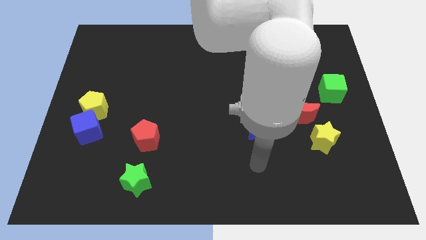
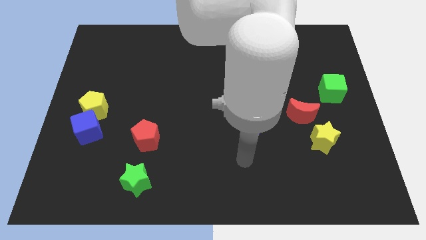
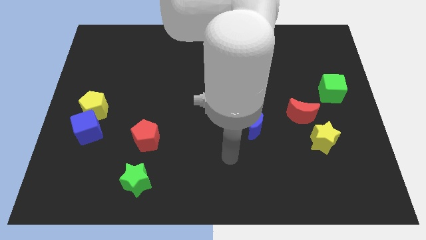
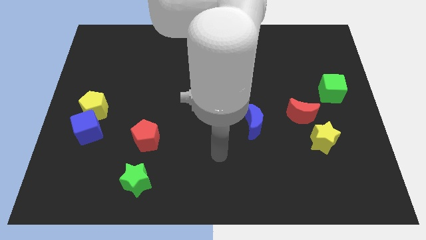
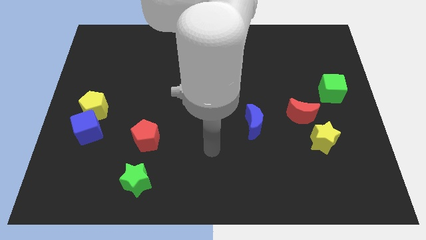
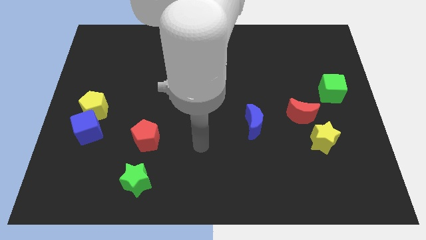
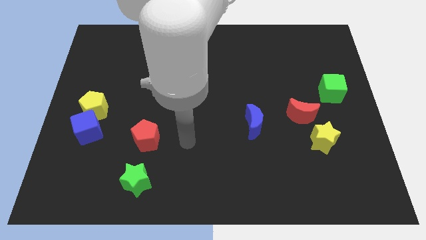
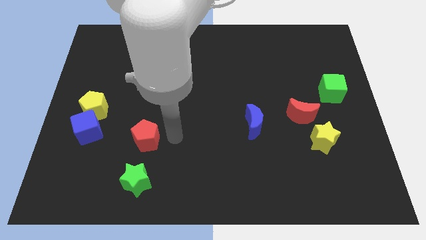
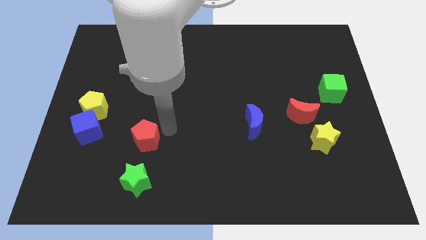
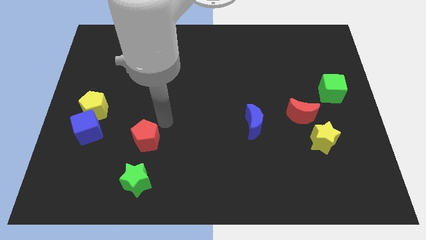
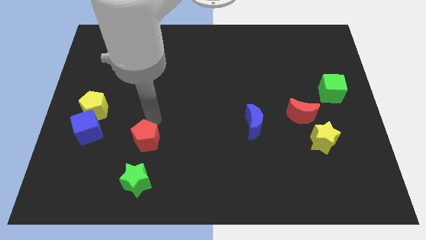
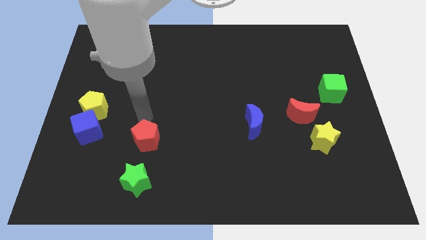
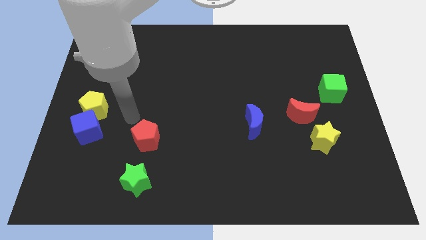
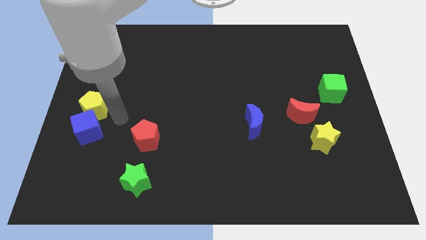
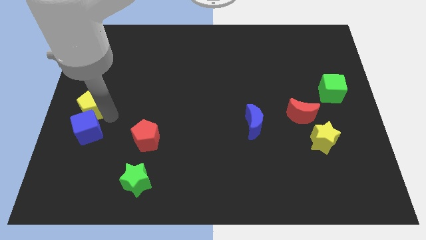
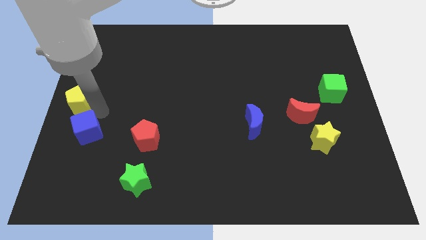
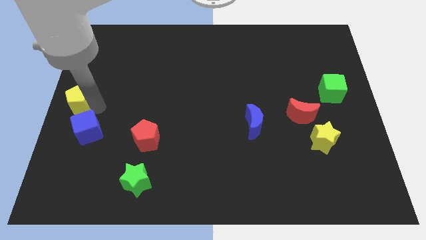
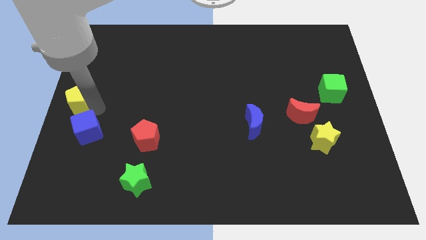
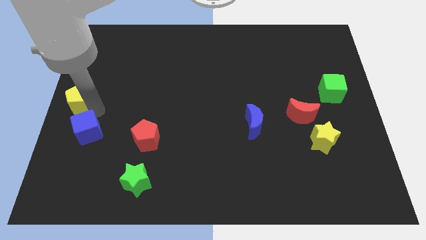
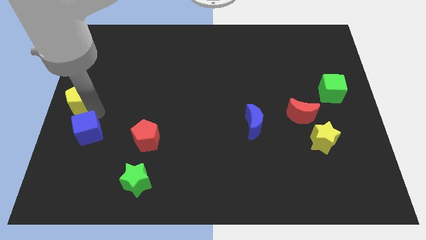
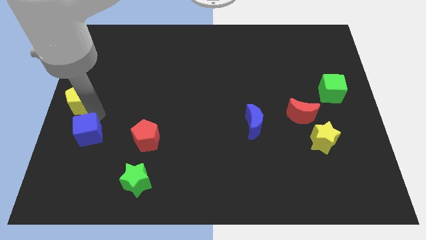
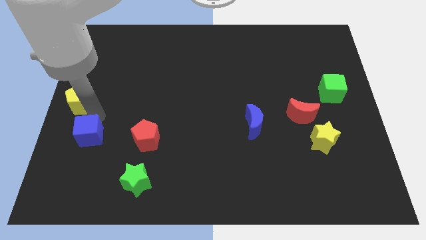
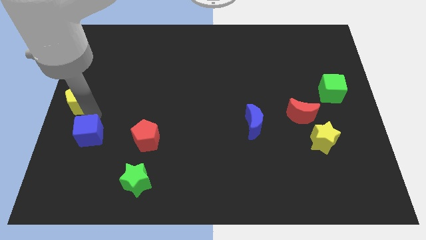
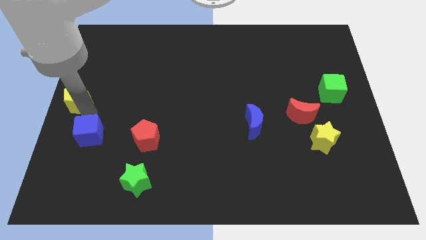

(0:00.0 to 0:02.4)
pull the blue cube apart from the yellow pentagon

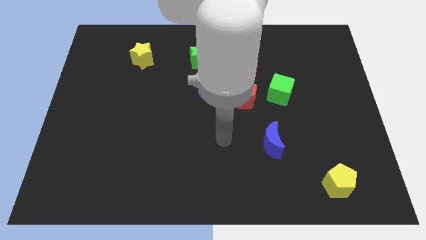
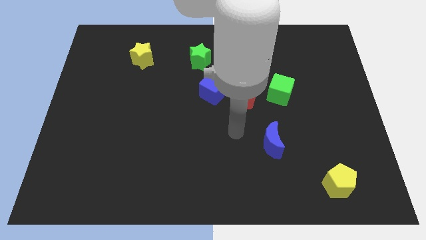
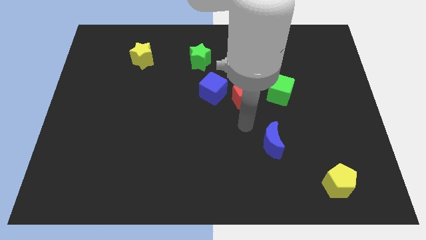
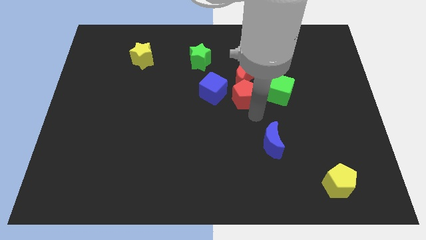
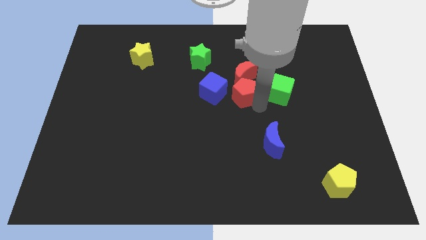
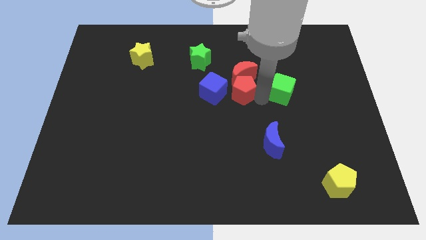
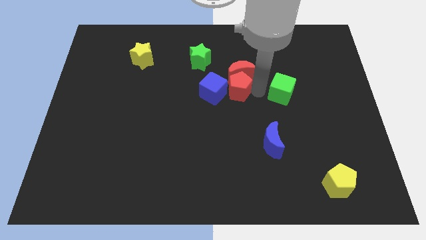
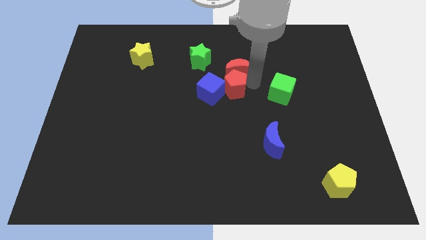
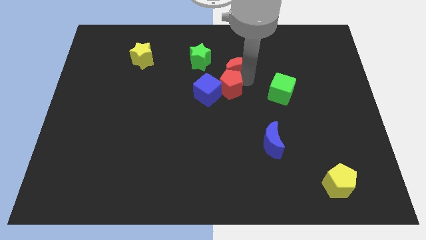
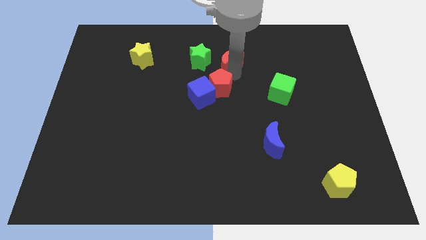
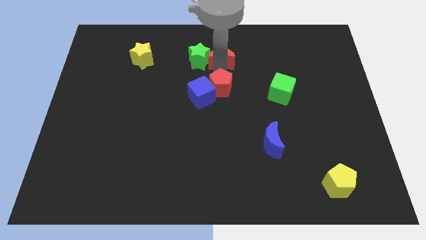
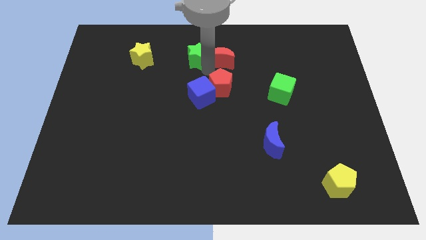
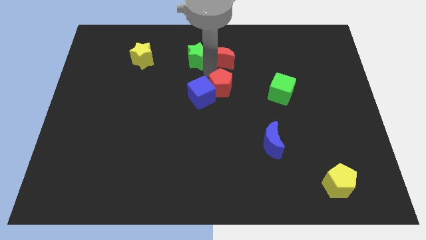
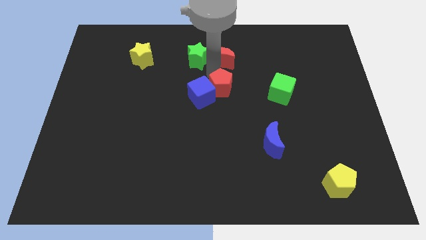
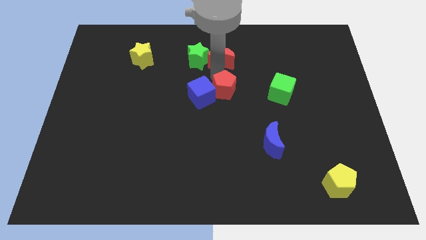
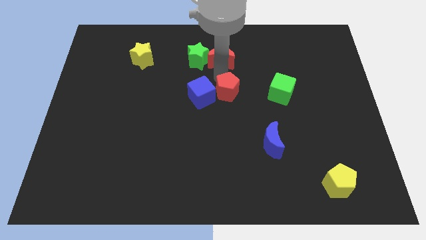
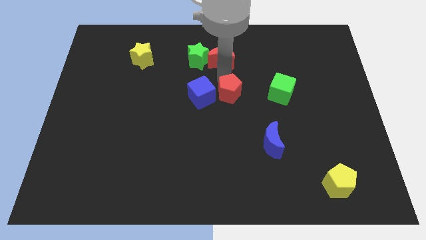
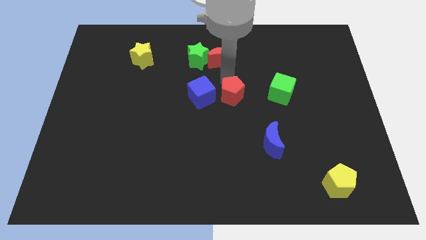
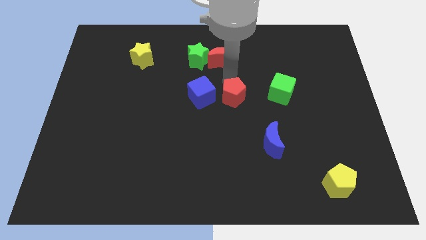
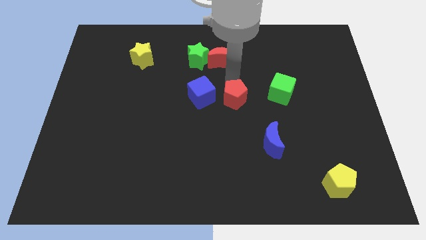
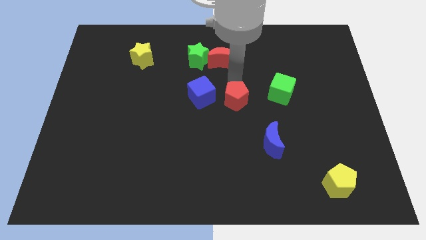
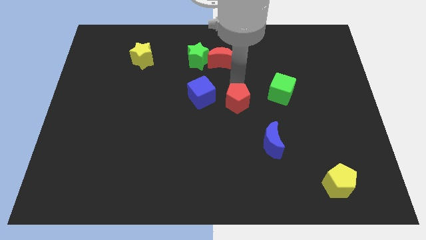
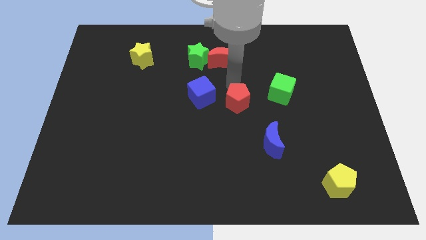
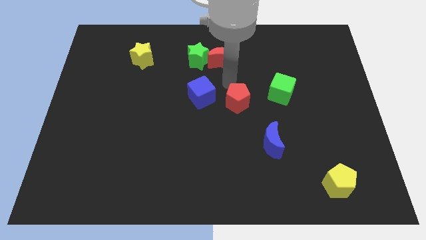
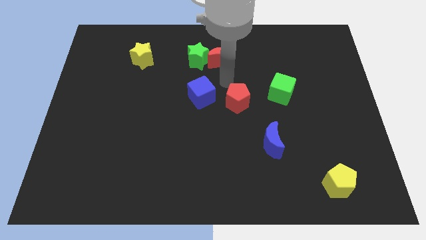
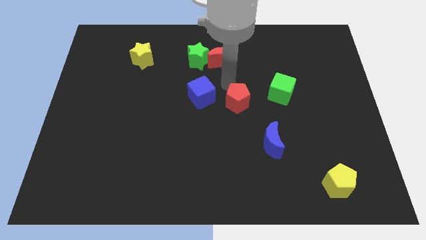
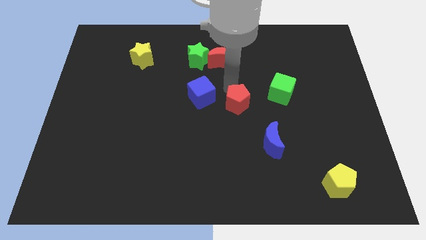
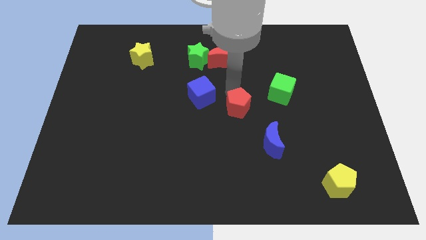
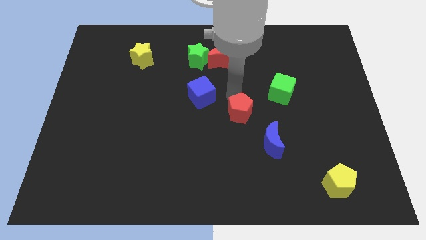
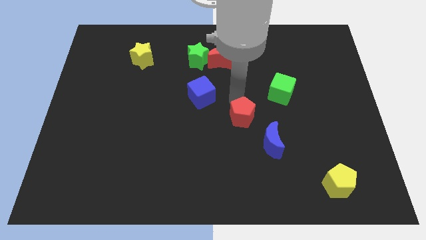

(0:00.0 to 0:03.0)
move the red pentagon away from the group of blocks

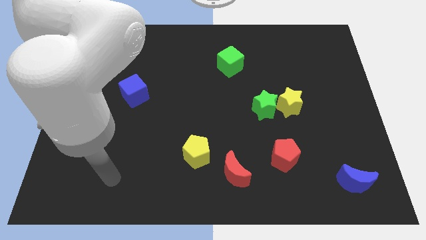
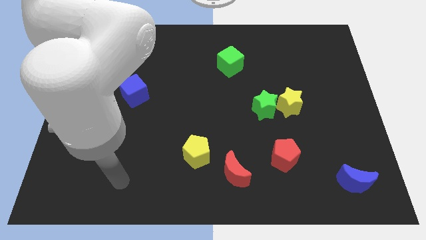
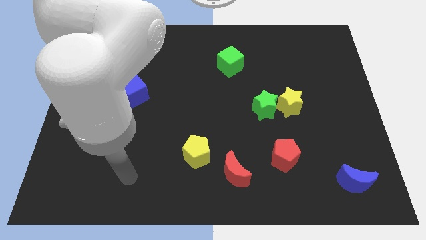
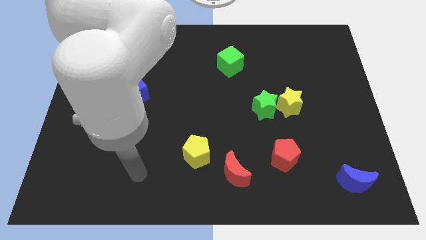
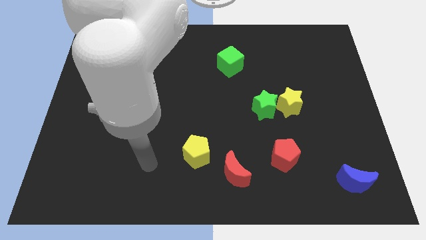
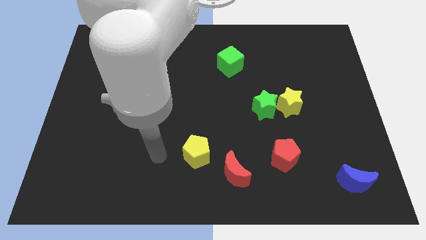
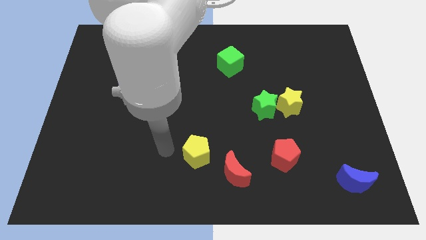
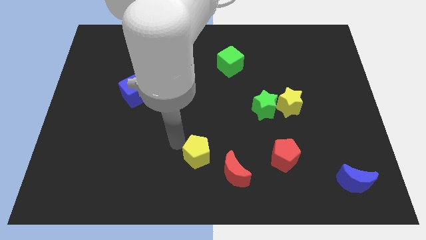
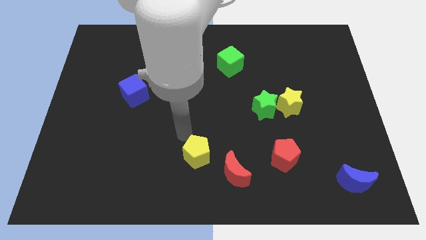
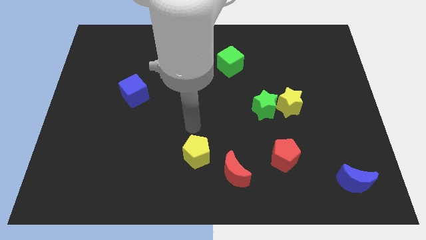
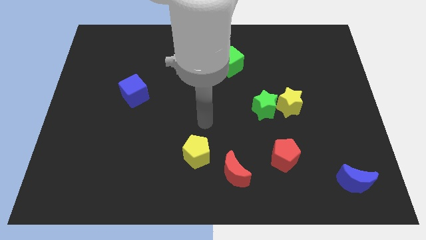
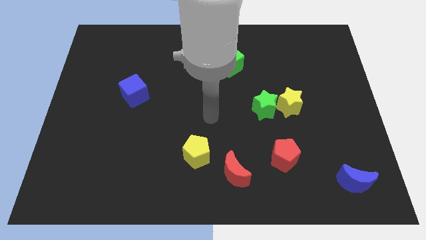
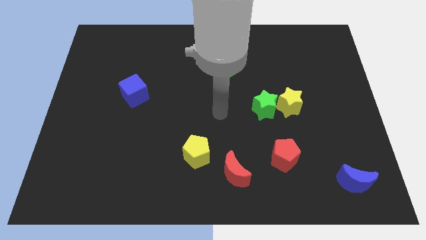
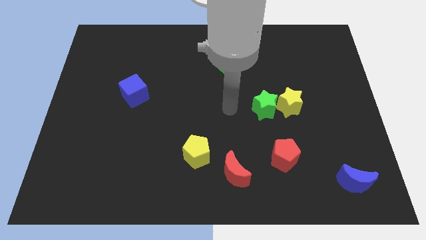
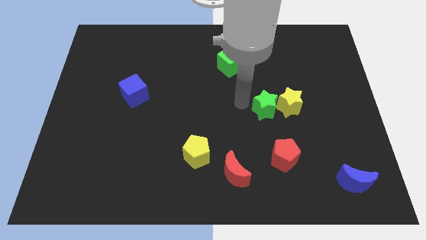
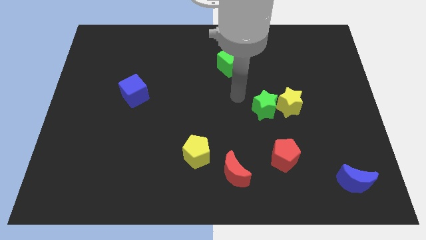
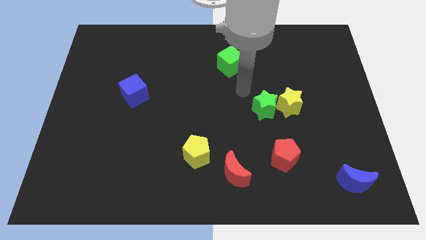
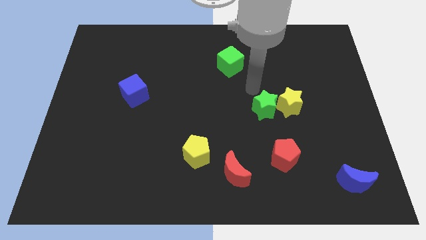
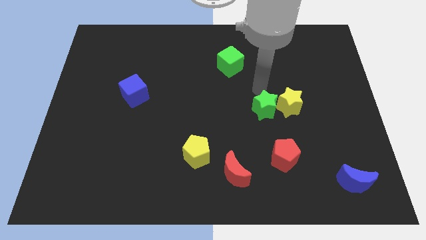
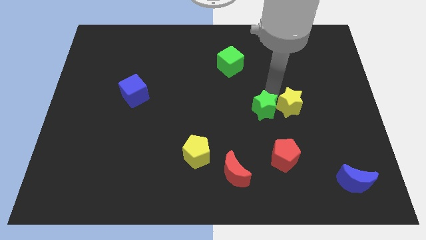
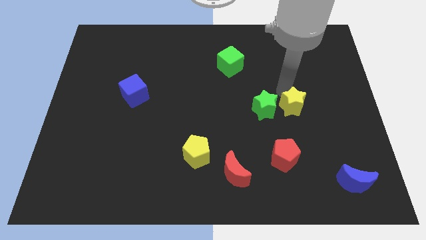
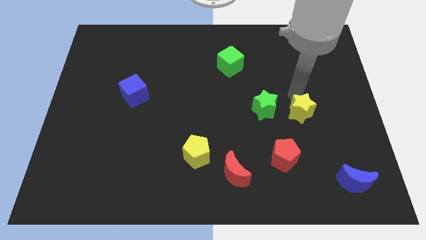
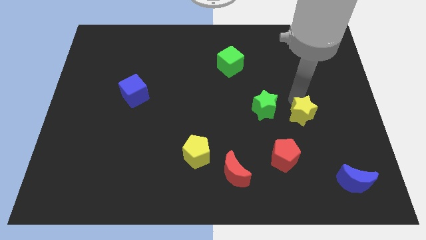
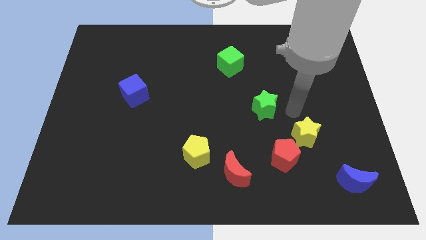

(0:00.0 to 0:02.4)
pull the green star apart from the yellow star

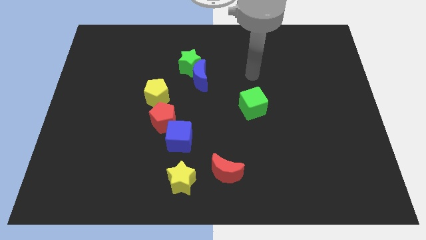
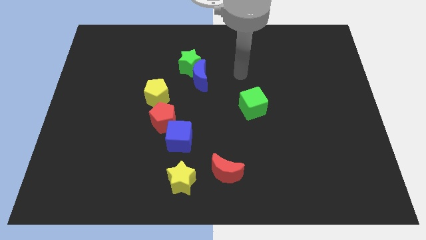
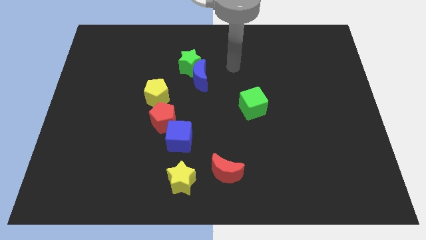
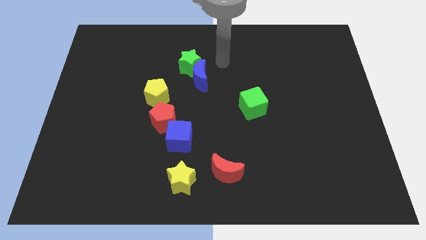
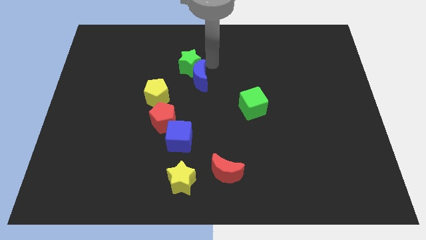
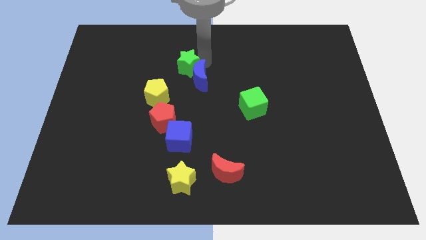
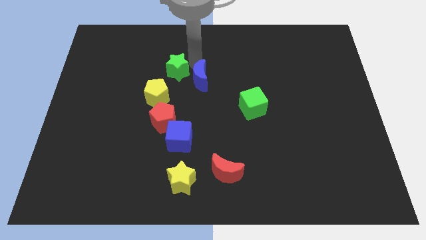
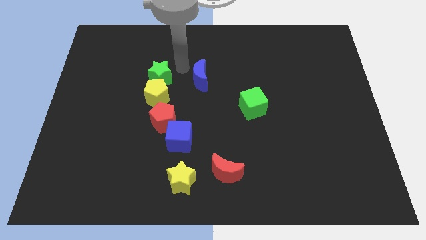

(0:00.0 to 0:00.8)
move the blue moon away from the green star

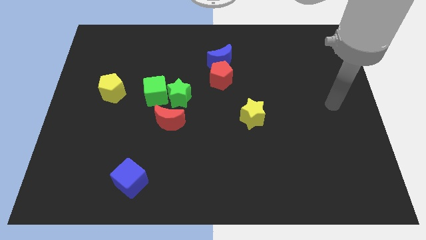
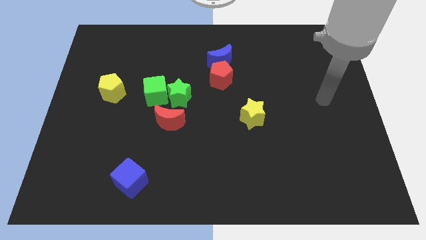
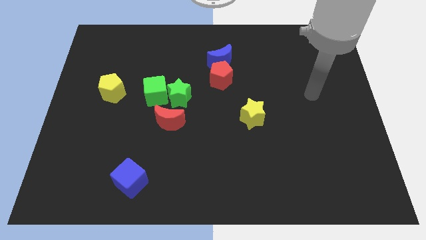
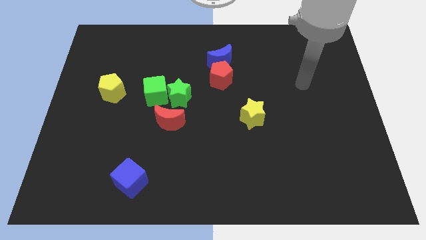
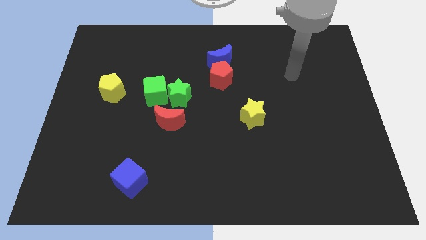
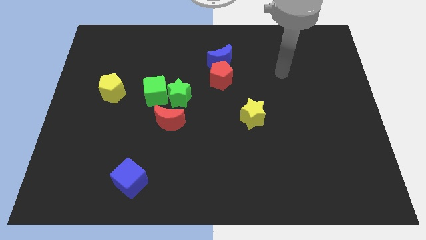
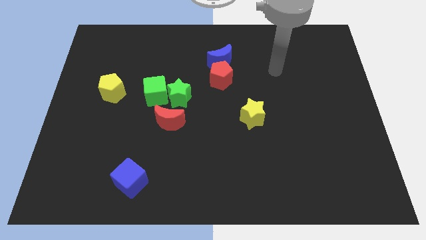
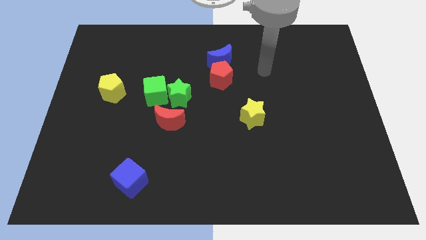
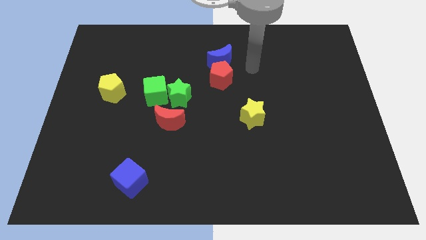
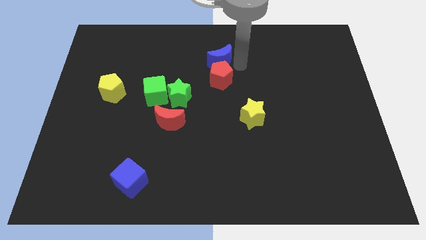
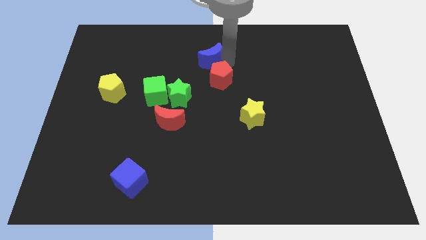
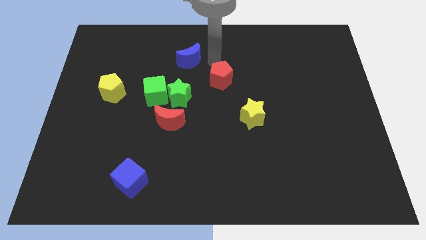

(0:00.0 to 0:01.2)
separate the red pentagon from the blue moon
